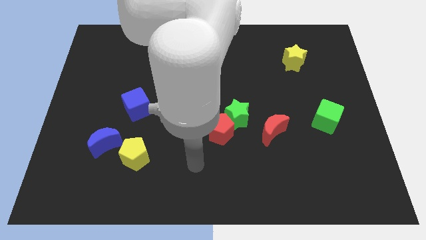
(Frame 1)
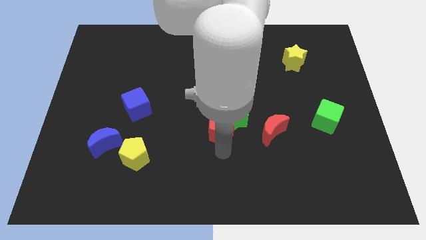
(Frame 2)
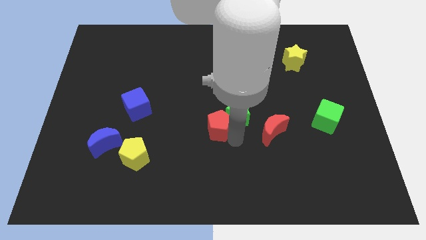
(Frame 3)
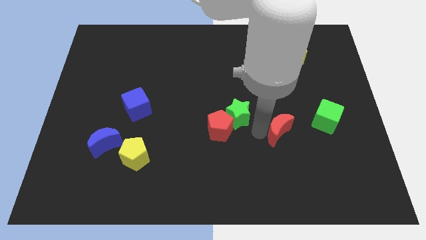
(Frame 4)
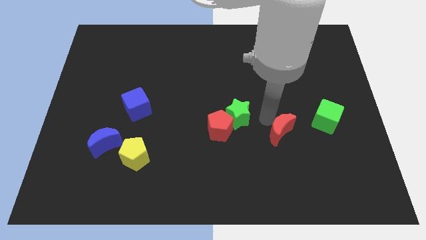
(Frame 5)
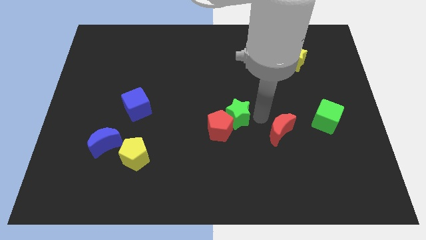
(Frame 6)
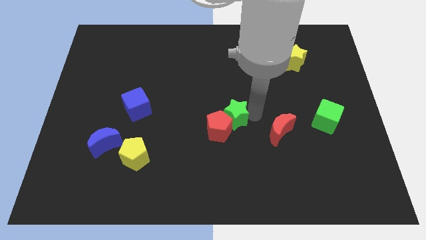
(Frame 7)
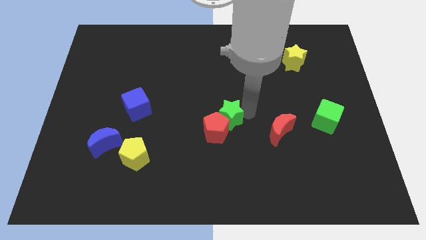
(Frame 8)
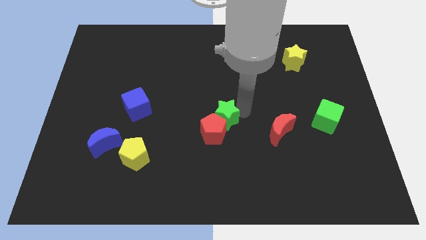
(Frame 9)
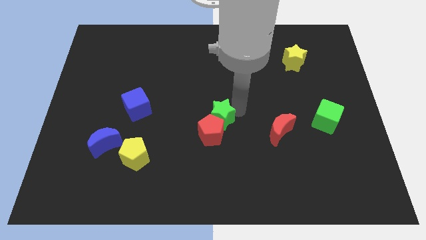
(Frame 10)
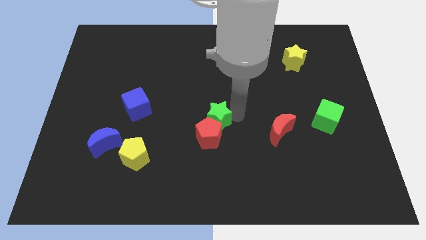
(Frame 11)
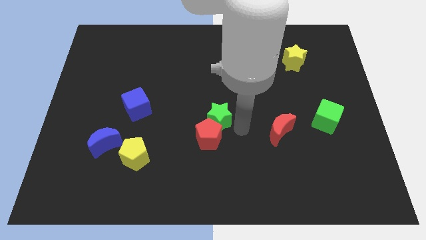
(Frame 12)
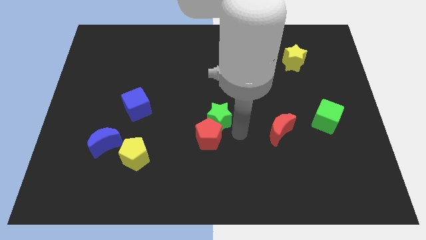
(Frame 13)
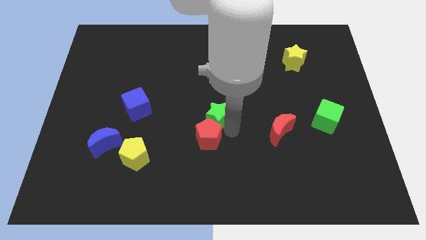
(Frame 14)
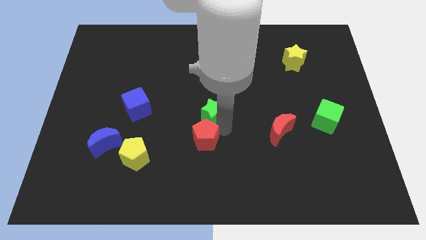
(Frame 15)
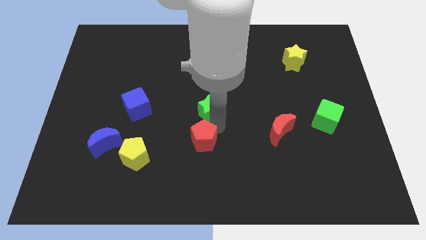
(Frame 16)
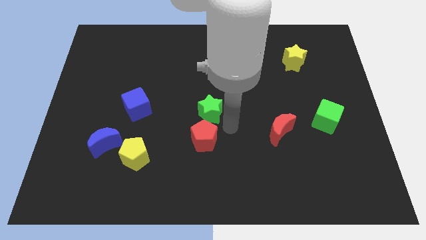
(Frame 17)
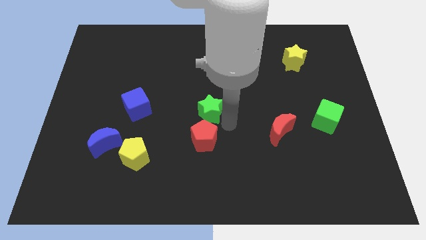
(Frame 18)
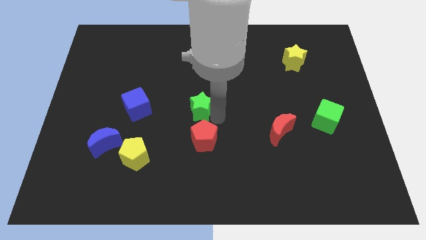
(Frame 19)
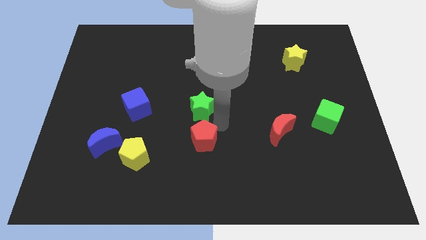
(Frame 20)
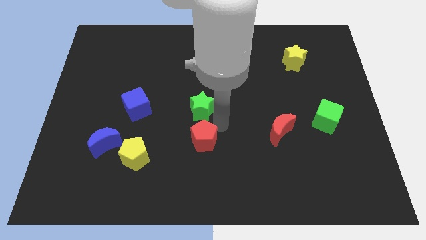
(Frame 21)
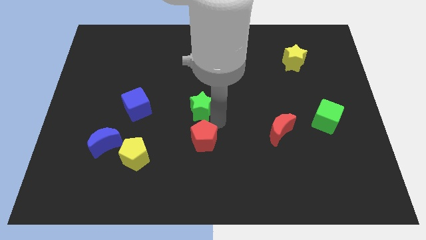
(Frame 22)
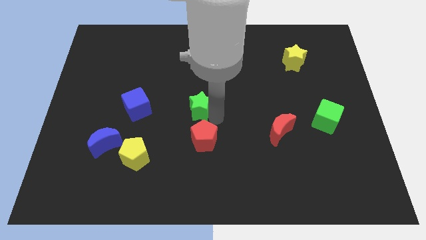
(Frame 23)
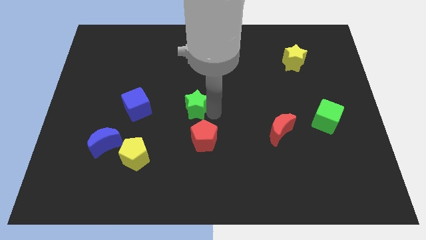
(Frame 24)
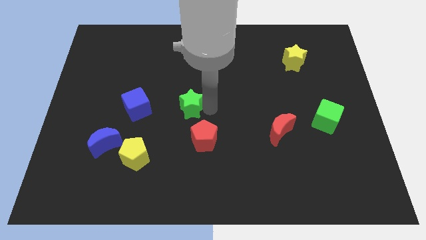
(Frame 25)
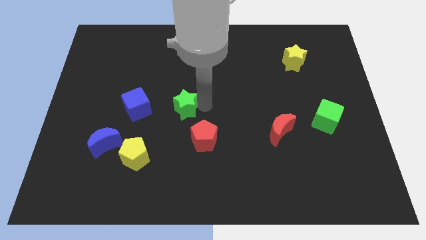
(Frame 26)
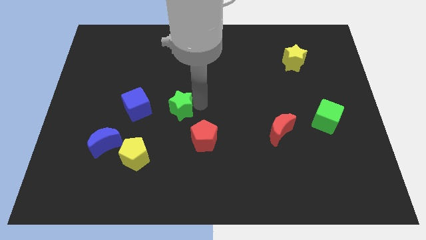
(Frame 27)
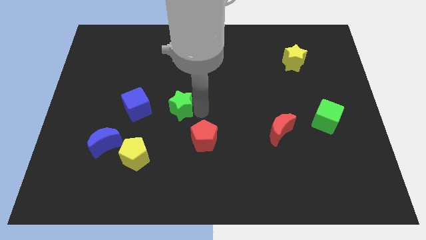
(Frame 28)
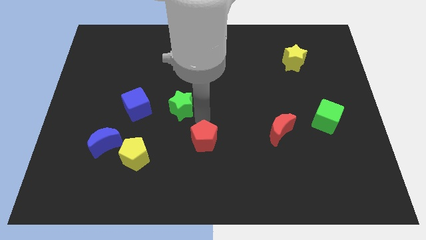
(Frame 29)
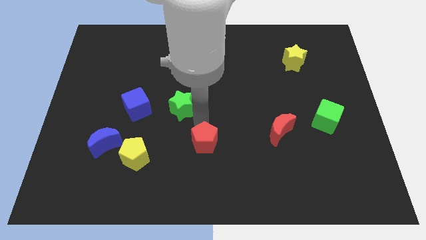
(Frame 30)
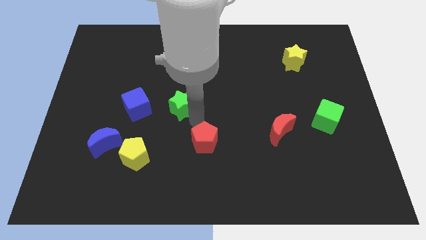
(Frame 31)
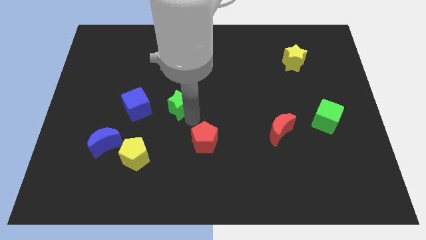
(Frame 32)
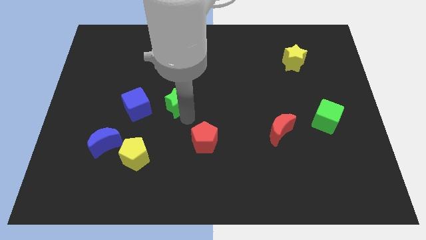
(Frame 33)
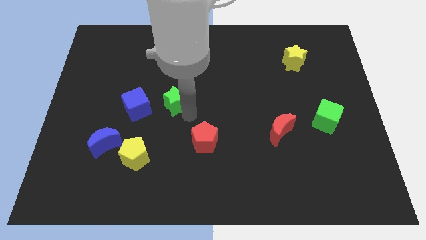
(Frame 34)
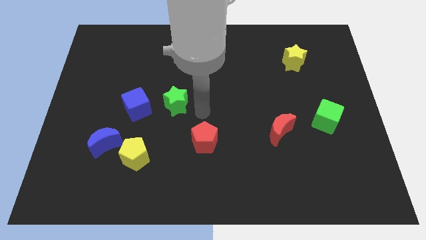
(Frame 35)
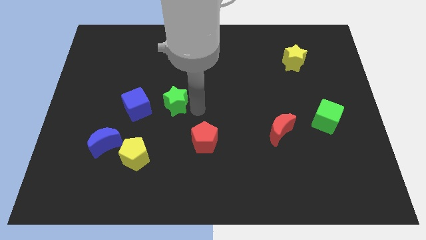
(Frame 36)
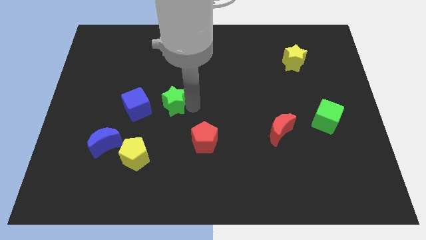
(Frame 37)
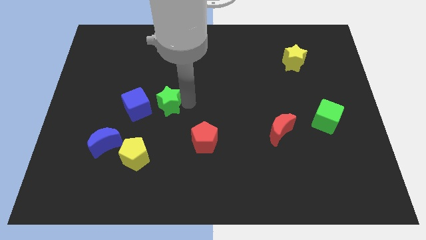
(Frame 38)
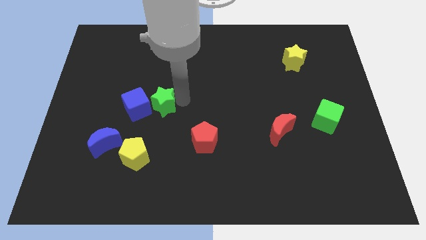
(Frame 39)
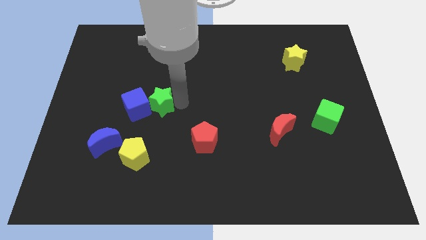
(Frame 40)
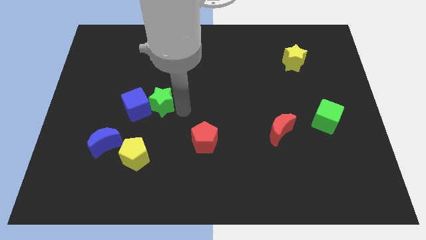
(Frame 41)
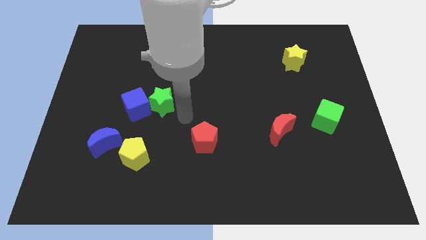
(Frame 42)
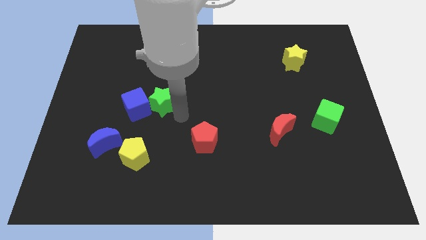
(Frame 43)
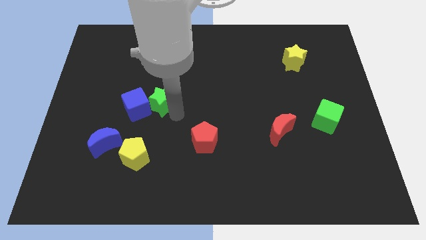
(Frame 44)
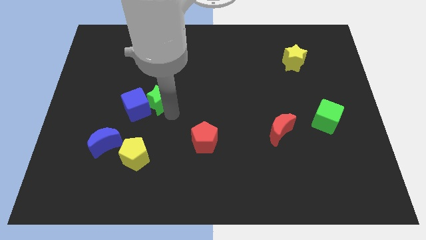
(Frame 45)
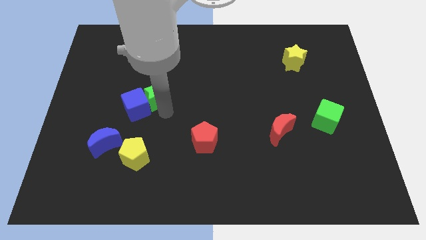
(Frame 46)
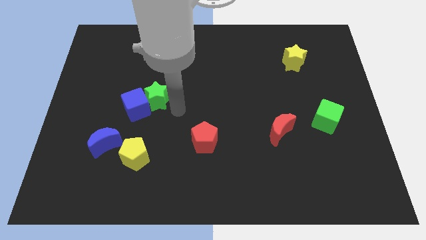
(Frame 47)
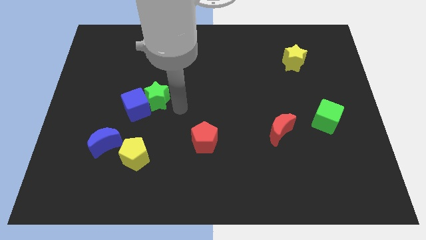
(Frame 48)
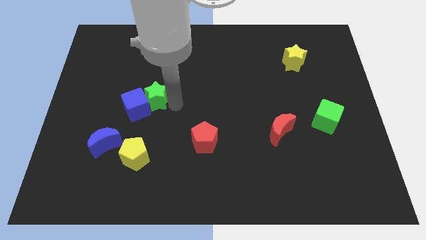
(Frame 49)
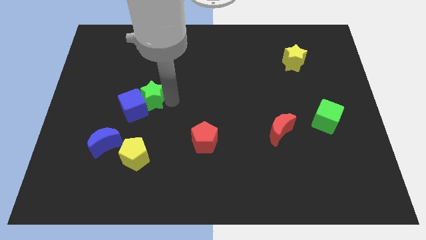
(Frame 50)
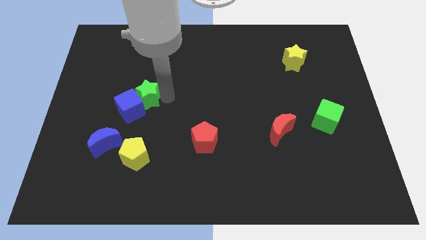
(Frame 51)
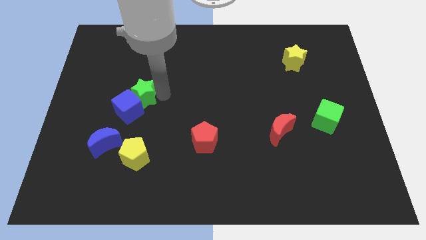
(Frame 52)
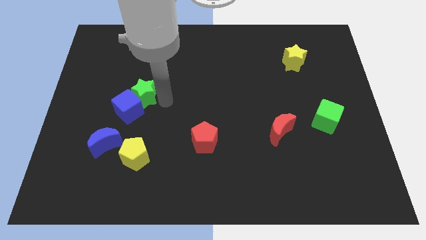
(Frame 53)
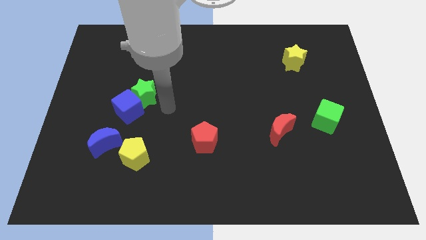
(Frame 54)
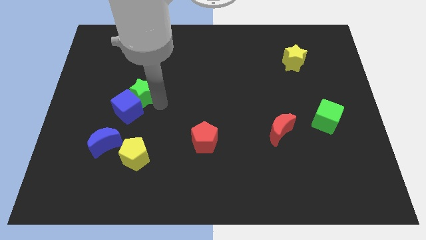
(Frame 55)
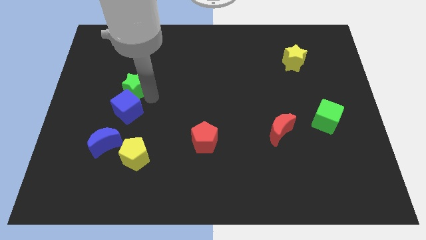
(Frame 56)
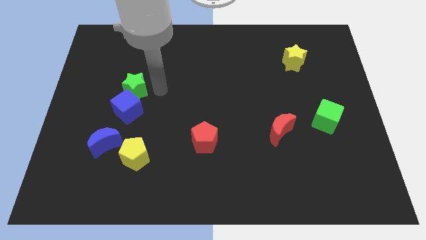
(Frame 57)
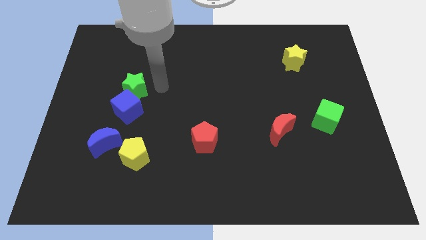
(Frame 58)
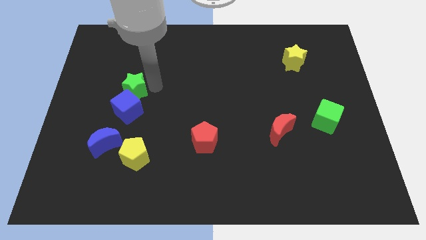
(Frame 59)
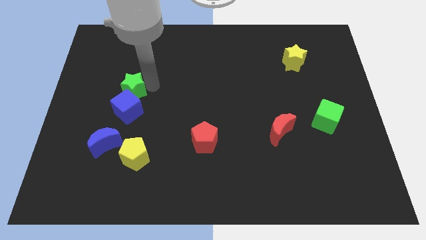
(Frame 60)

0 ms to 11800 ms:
slide the green star to the top left side of the blue cube

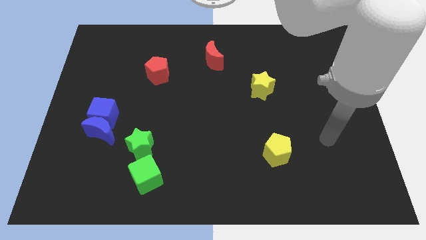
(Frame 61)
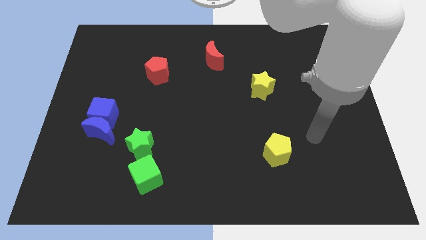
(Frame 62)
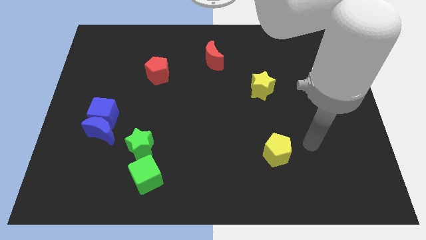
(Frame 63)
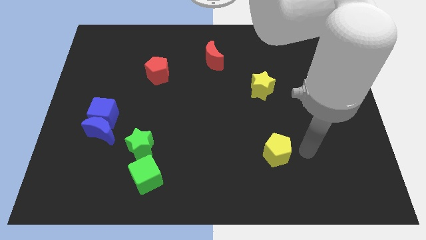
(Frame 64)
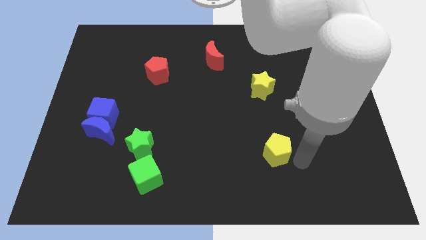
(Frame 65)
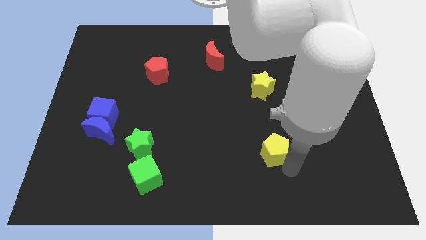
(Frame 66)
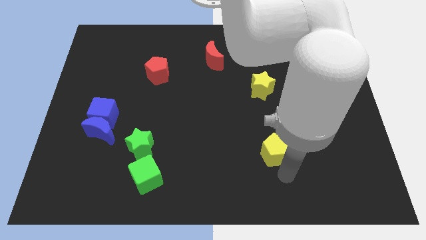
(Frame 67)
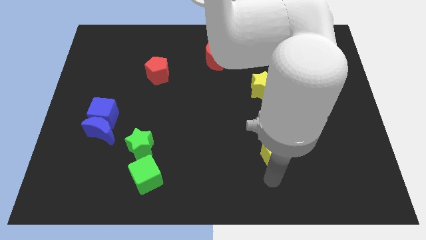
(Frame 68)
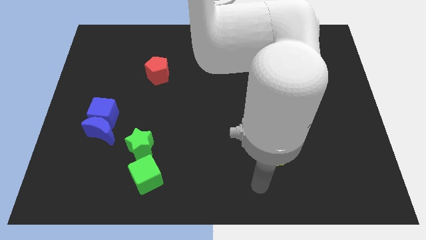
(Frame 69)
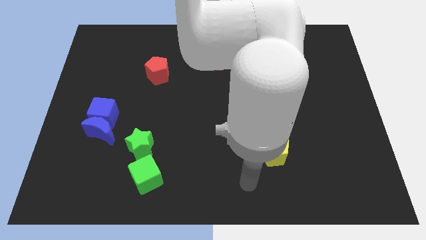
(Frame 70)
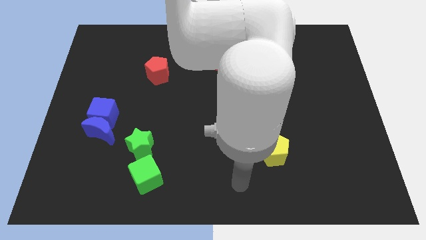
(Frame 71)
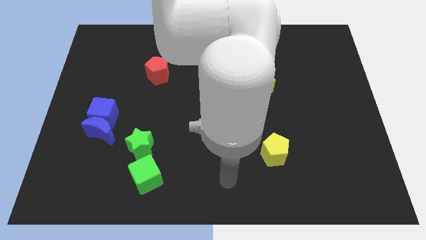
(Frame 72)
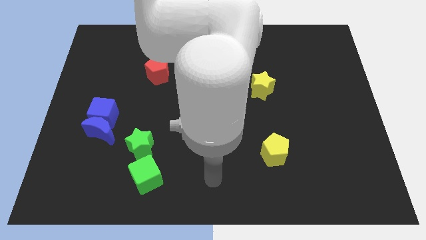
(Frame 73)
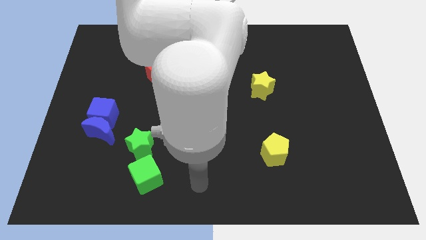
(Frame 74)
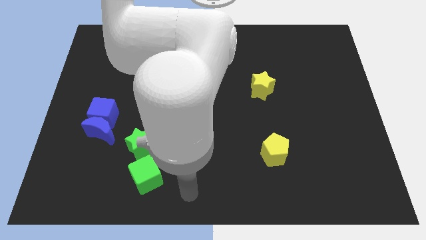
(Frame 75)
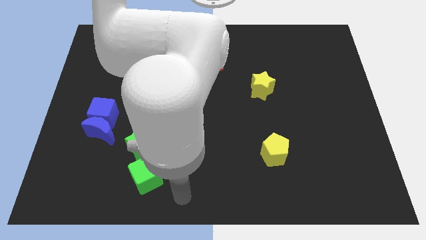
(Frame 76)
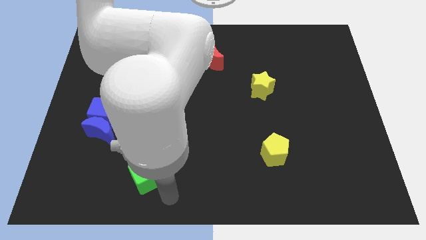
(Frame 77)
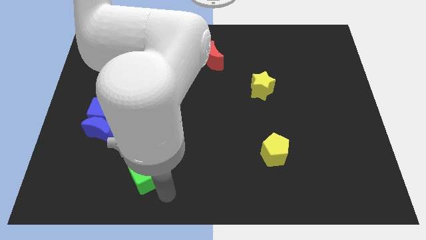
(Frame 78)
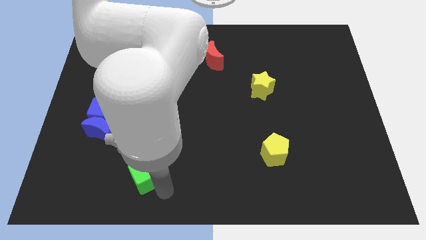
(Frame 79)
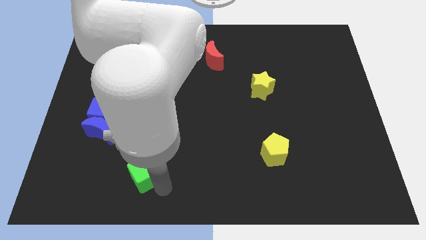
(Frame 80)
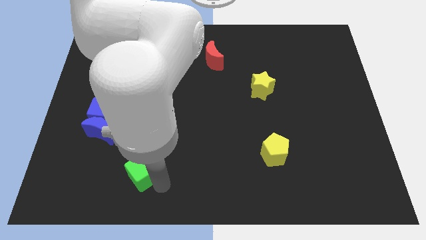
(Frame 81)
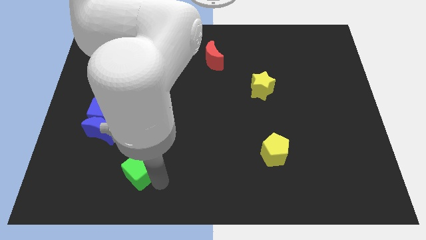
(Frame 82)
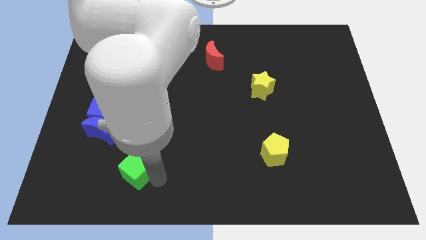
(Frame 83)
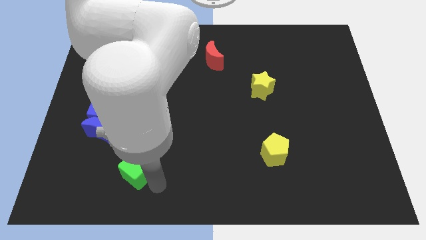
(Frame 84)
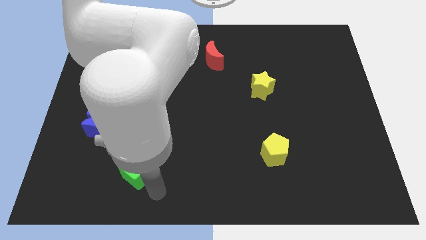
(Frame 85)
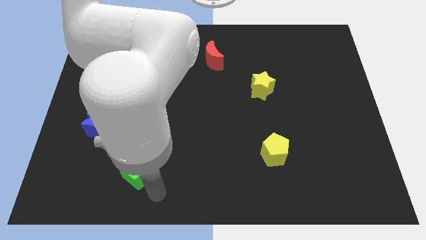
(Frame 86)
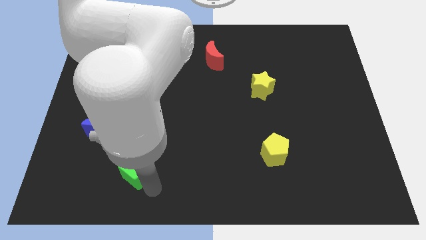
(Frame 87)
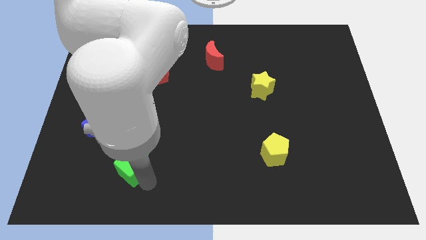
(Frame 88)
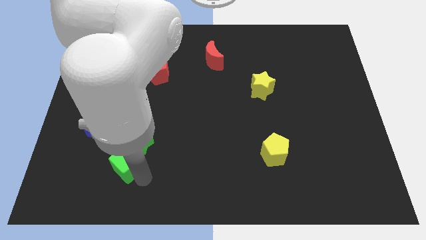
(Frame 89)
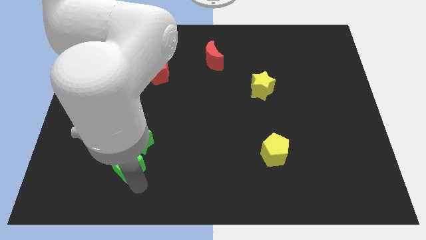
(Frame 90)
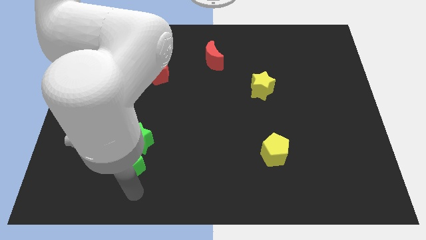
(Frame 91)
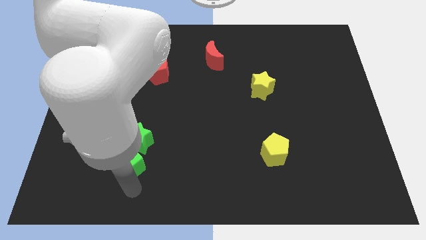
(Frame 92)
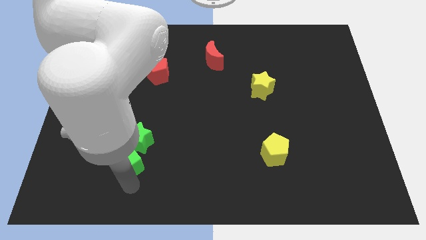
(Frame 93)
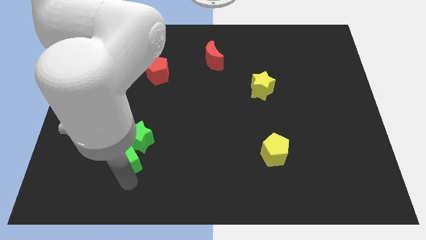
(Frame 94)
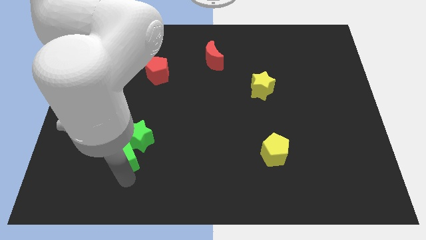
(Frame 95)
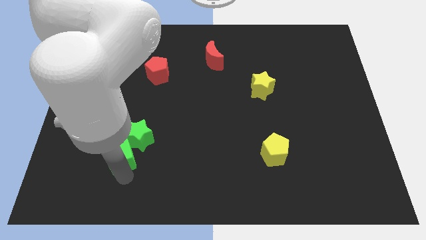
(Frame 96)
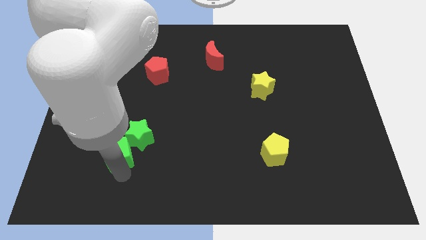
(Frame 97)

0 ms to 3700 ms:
put the green cube to the bottom right of the blue cube
